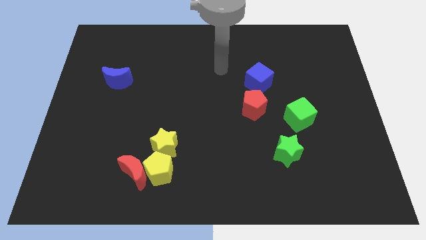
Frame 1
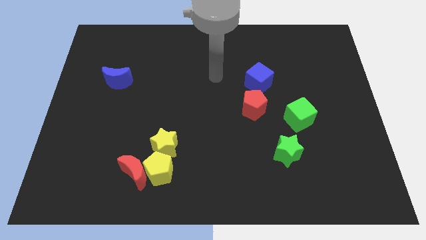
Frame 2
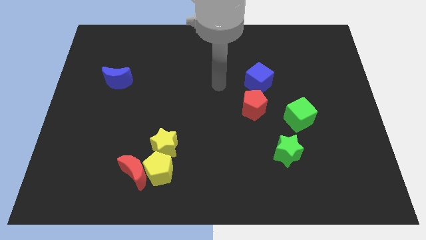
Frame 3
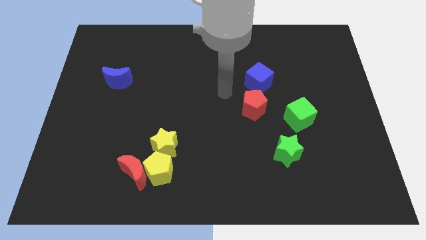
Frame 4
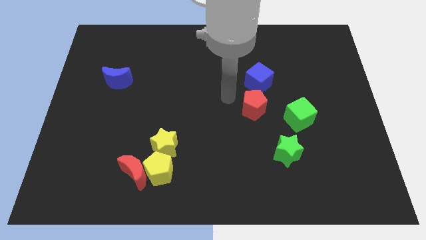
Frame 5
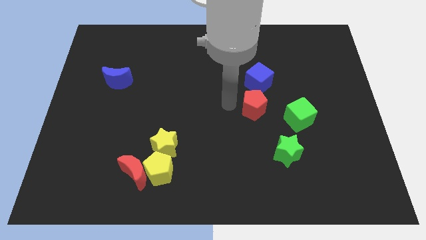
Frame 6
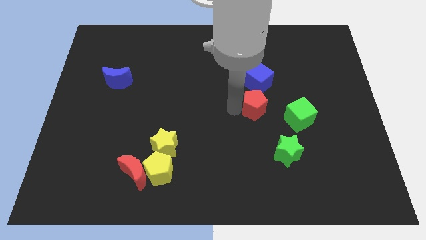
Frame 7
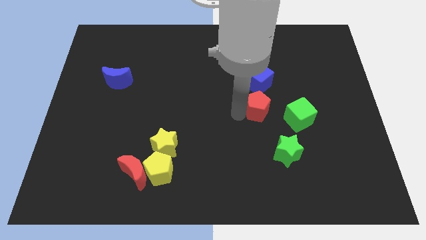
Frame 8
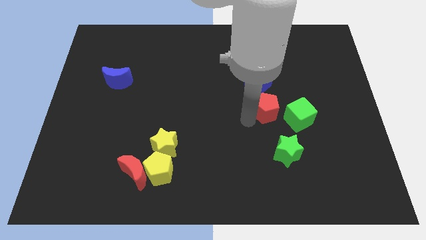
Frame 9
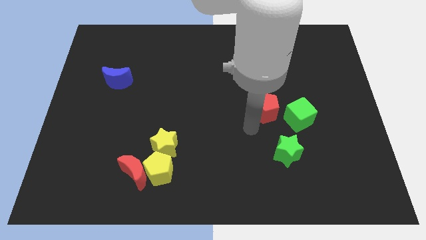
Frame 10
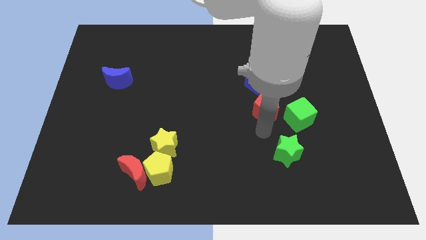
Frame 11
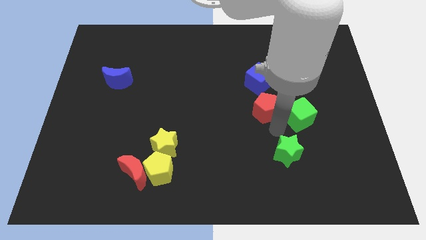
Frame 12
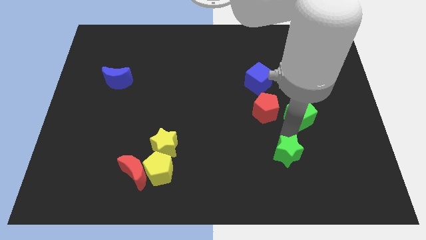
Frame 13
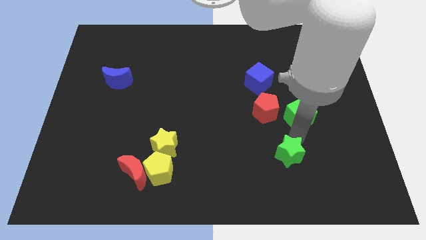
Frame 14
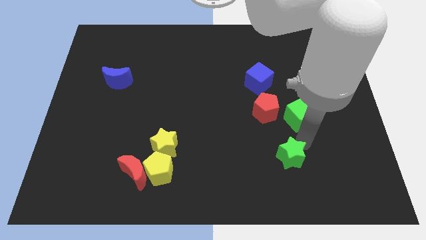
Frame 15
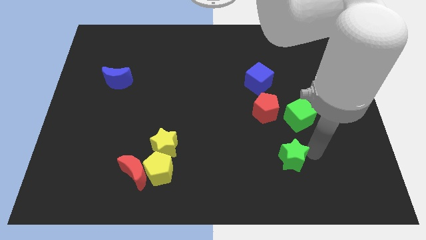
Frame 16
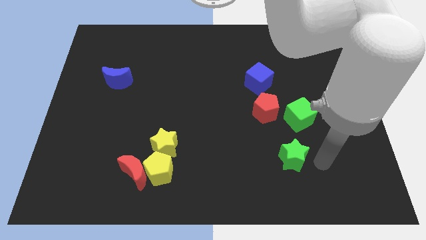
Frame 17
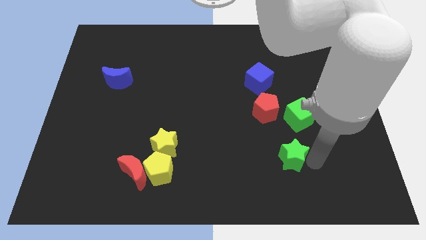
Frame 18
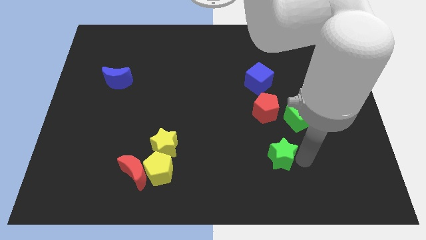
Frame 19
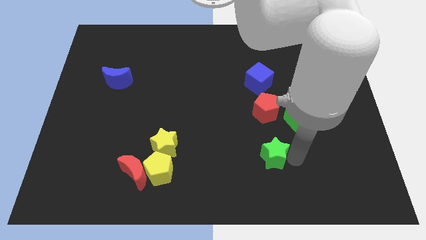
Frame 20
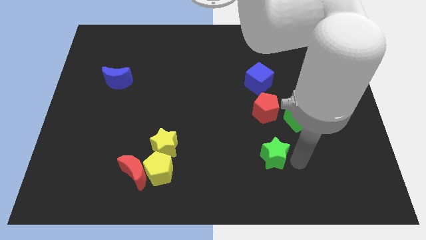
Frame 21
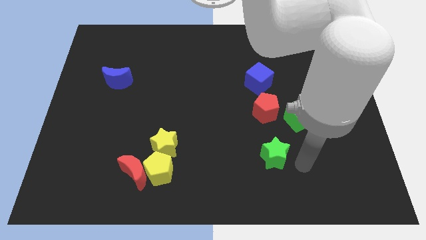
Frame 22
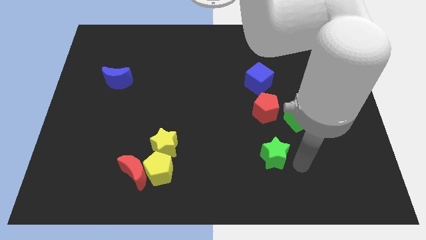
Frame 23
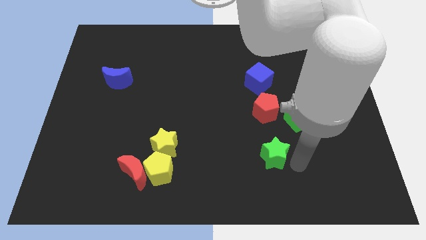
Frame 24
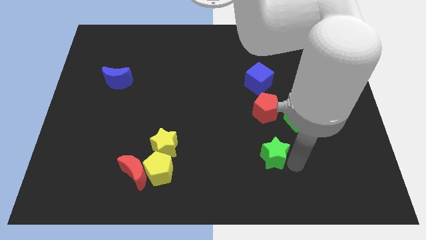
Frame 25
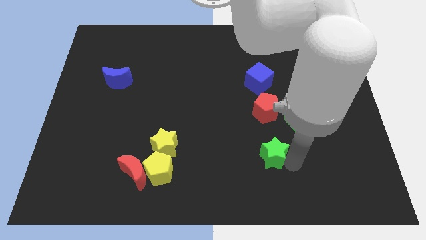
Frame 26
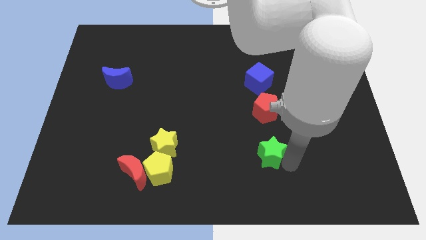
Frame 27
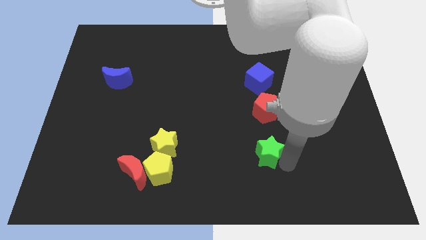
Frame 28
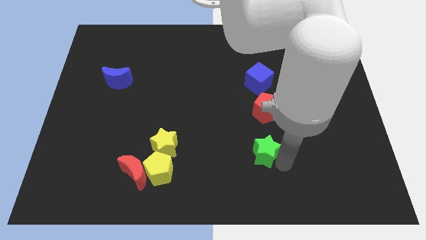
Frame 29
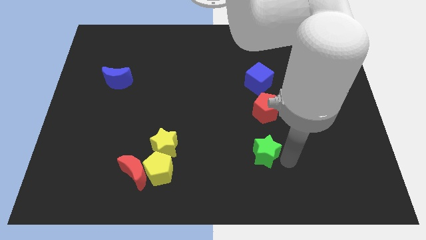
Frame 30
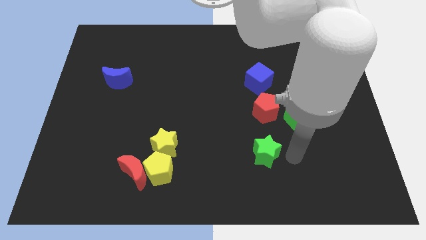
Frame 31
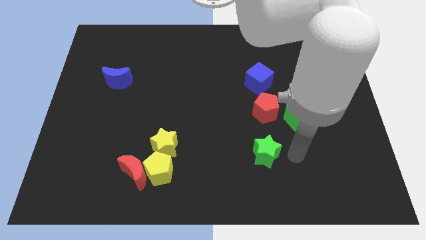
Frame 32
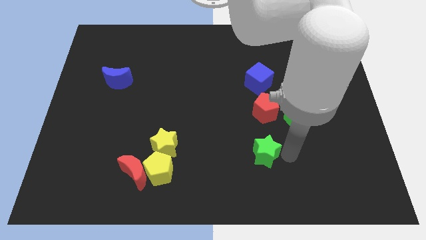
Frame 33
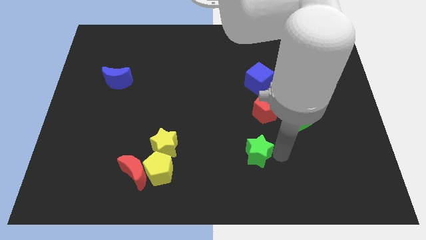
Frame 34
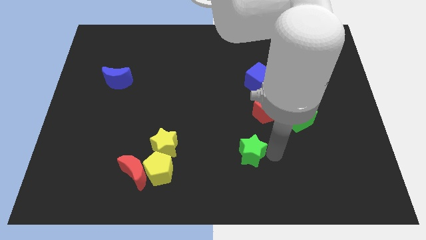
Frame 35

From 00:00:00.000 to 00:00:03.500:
slightly move the green star to the left

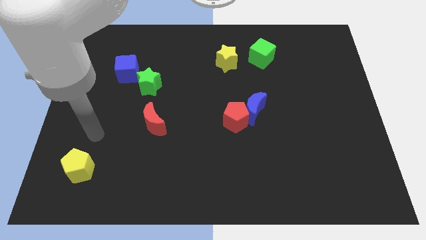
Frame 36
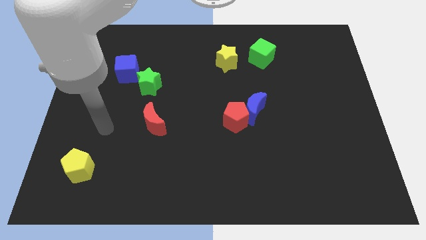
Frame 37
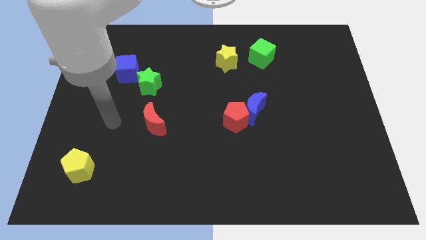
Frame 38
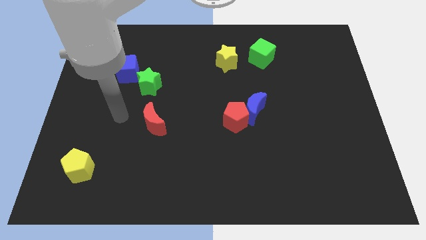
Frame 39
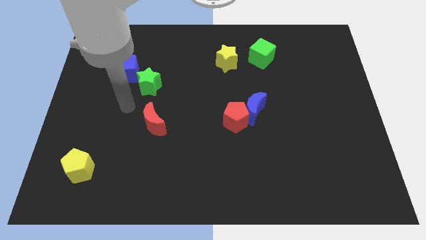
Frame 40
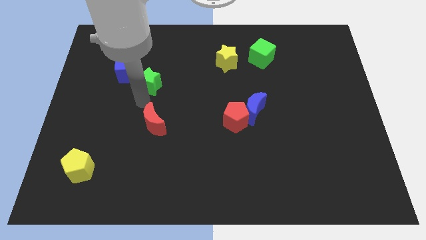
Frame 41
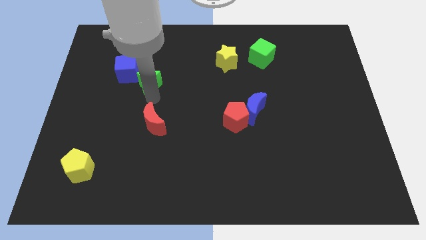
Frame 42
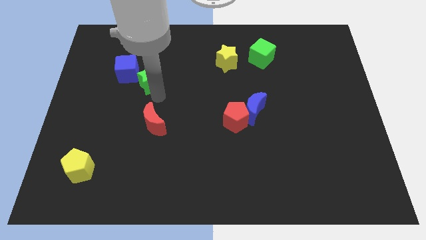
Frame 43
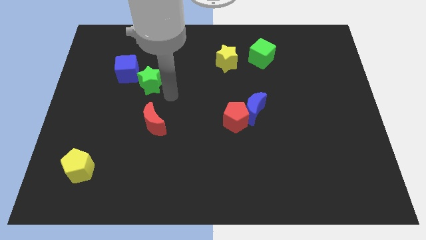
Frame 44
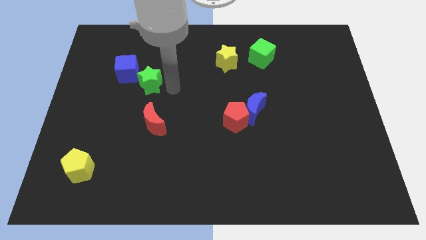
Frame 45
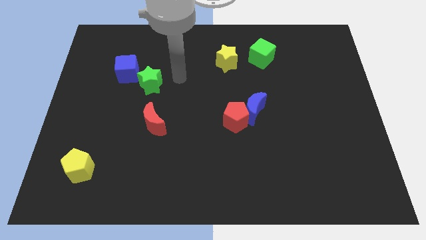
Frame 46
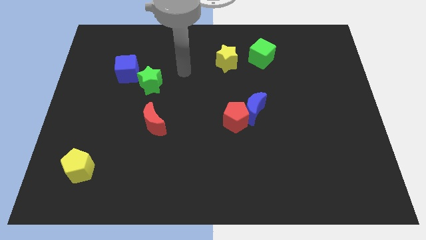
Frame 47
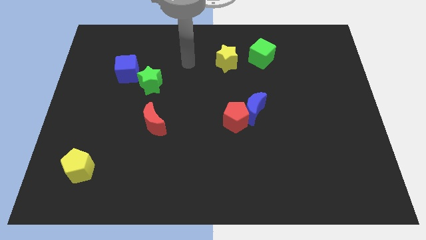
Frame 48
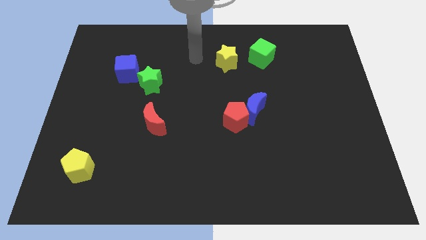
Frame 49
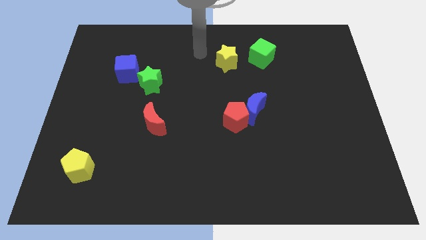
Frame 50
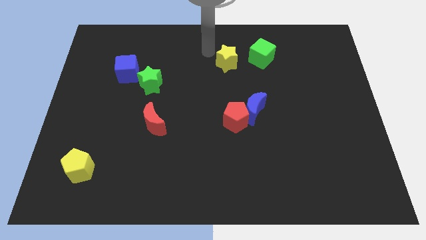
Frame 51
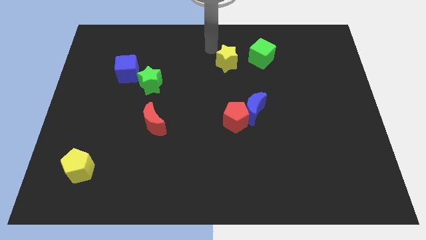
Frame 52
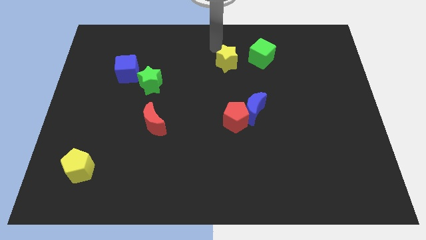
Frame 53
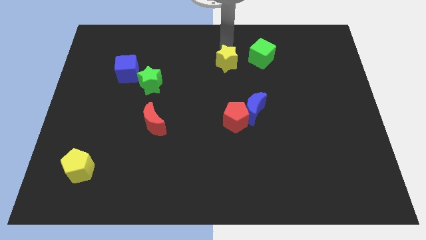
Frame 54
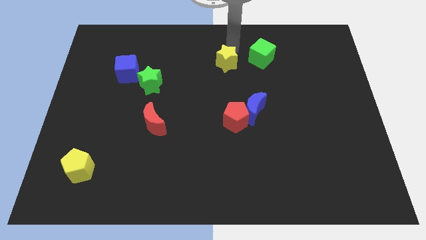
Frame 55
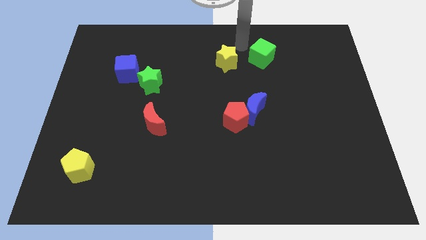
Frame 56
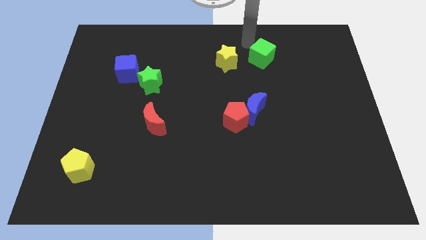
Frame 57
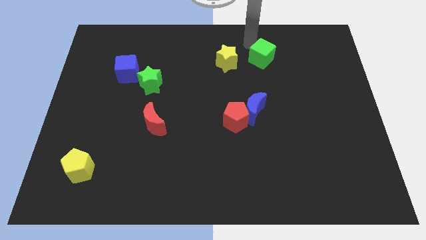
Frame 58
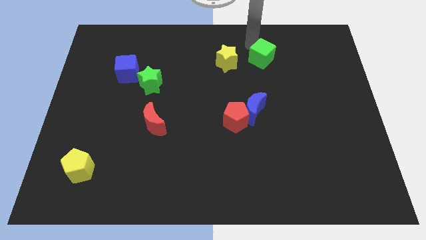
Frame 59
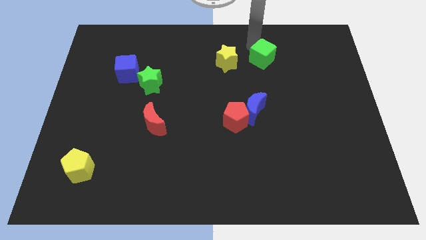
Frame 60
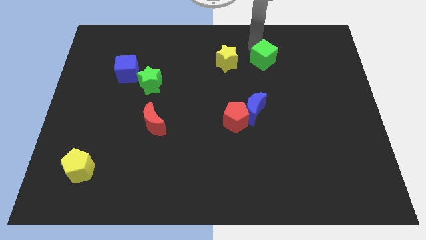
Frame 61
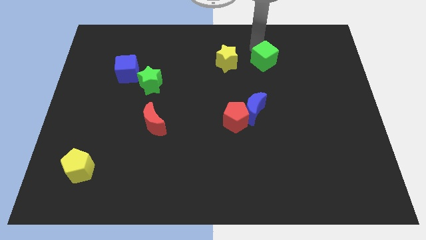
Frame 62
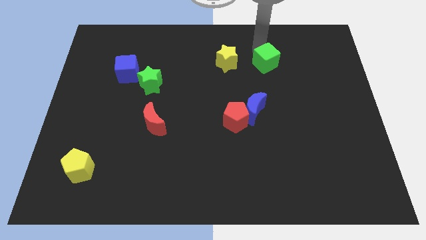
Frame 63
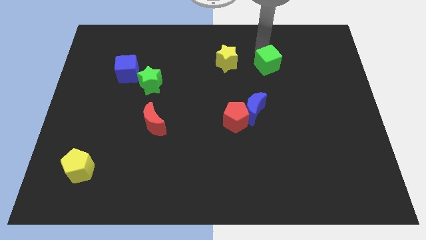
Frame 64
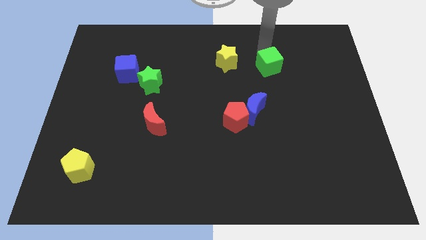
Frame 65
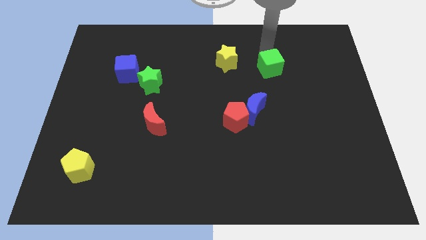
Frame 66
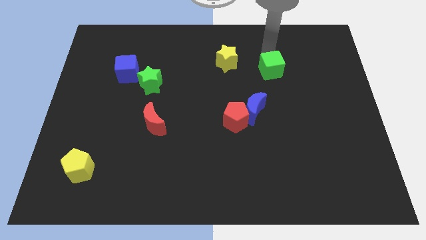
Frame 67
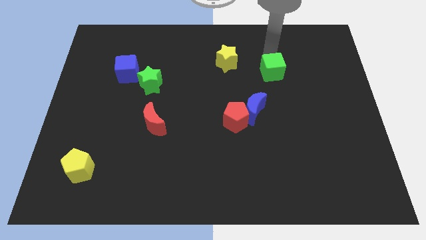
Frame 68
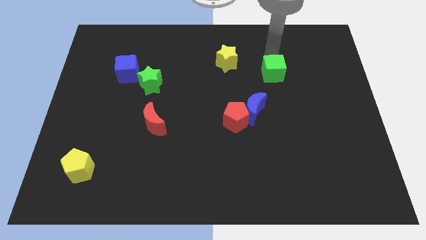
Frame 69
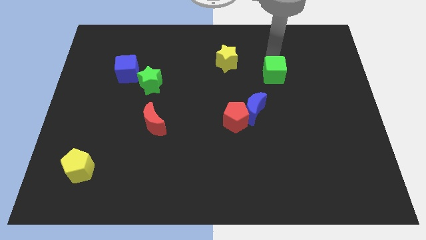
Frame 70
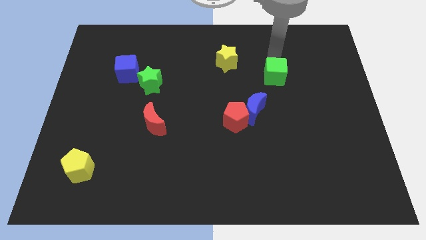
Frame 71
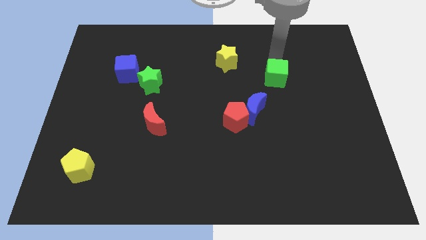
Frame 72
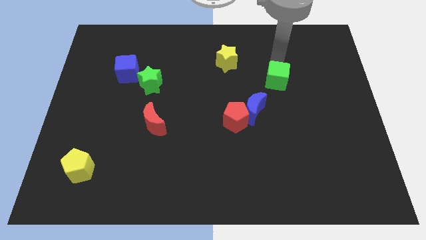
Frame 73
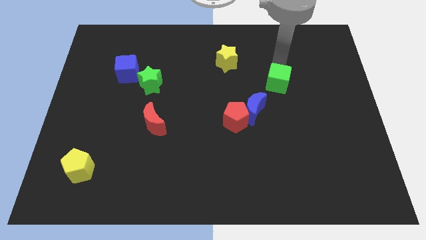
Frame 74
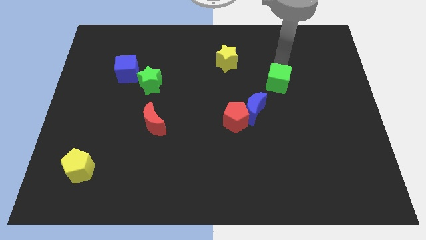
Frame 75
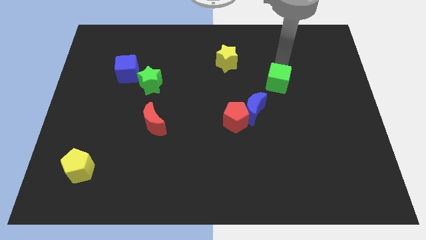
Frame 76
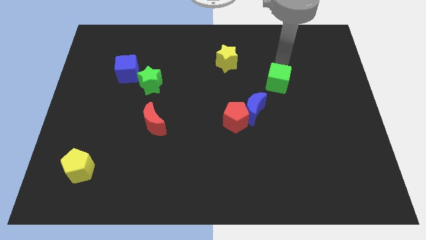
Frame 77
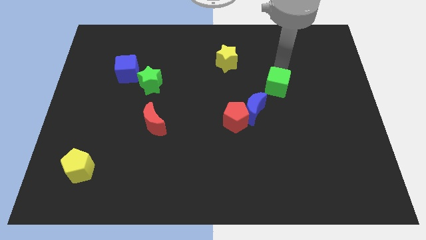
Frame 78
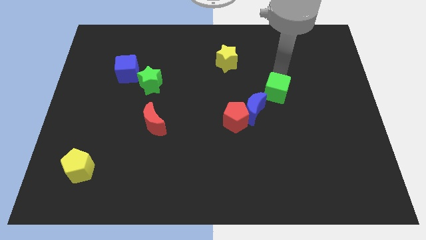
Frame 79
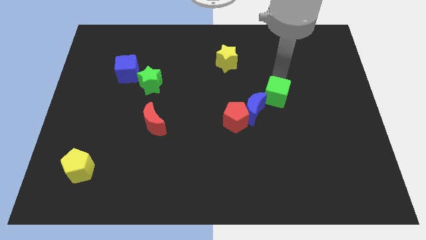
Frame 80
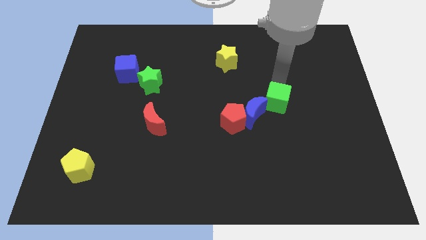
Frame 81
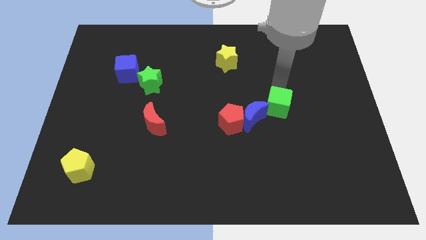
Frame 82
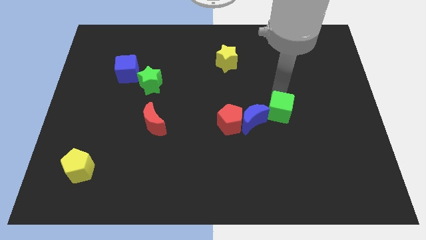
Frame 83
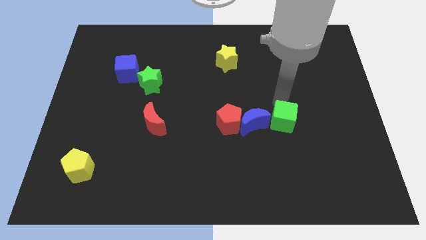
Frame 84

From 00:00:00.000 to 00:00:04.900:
push the green cube down
